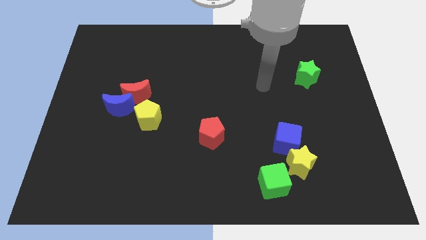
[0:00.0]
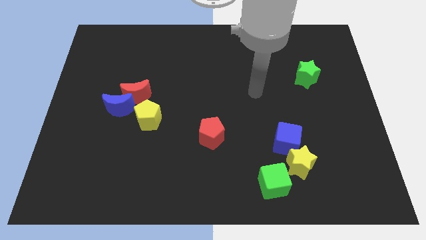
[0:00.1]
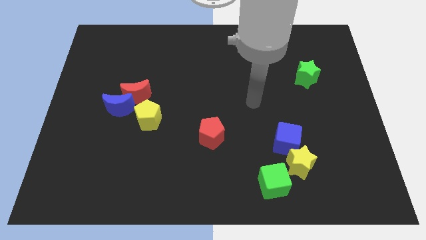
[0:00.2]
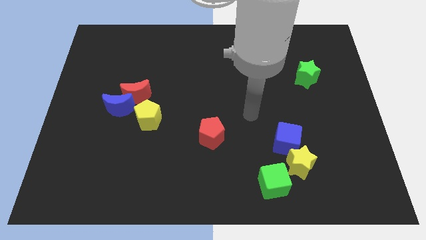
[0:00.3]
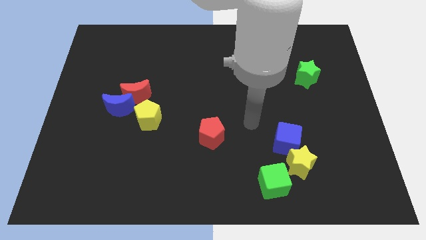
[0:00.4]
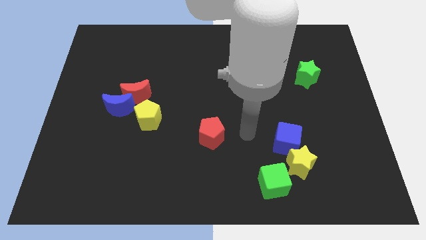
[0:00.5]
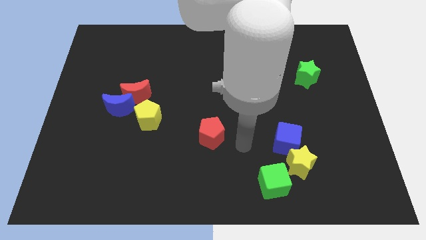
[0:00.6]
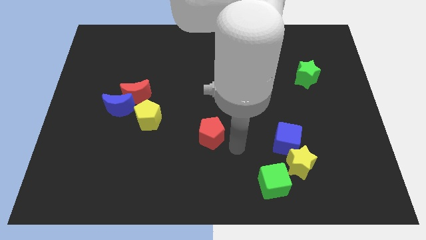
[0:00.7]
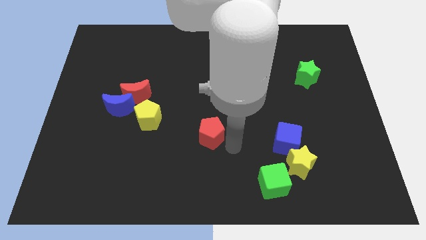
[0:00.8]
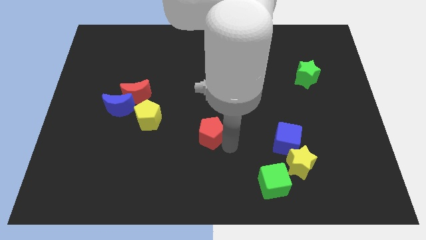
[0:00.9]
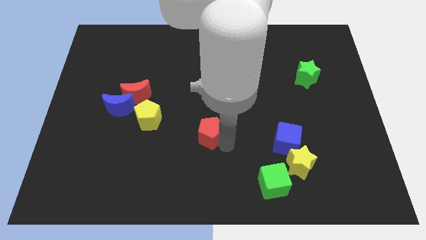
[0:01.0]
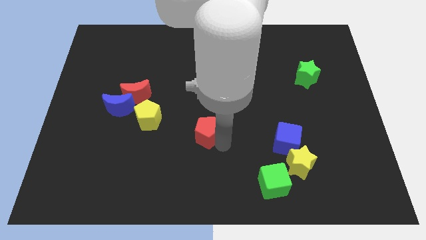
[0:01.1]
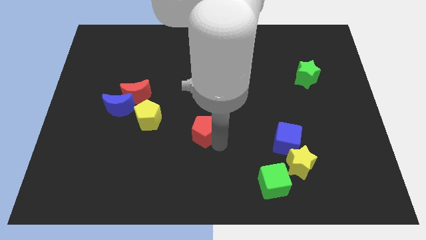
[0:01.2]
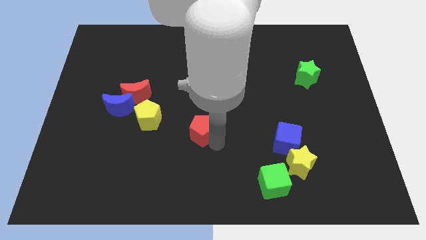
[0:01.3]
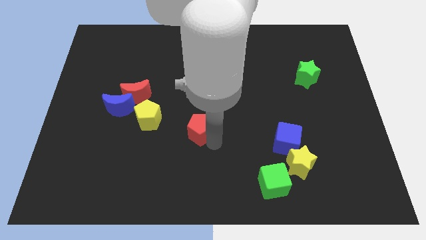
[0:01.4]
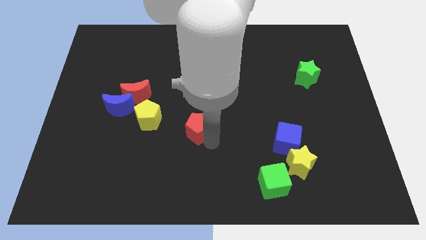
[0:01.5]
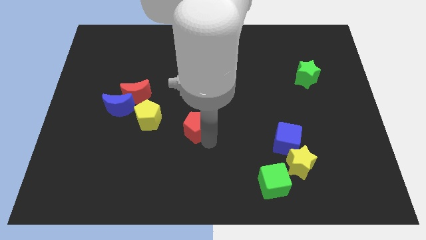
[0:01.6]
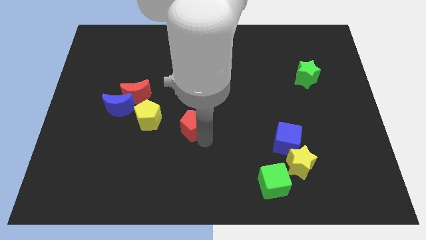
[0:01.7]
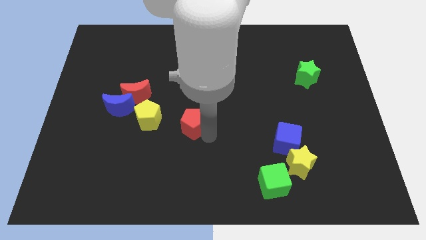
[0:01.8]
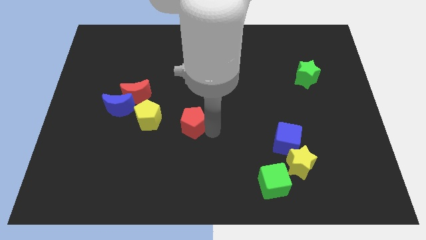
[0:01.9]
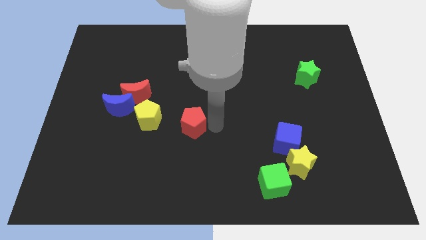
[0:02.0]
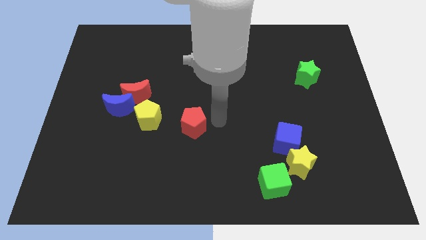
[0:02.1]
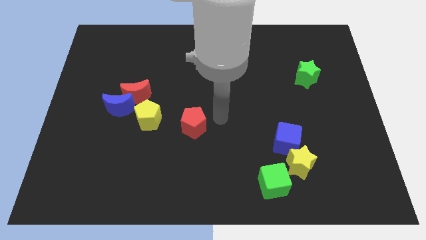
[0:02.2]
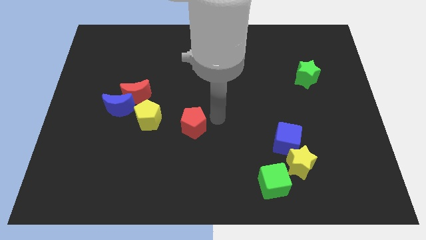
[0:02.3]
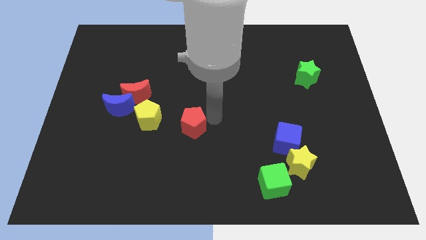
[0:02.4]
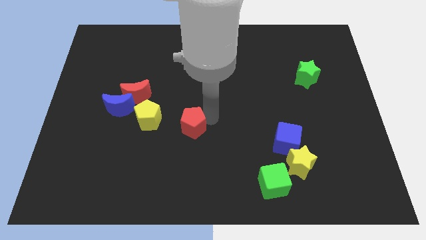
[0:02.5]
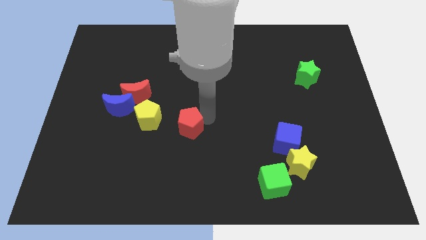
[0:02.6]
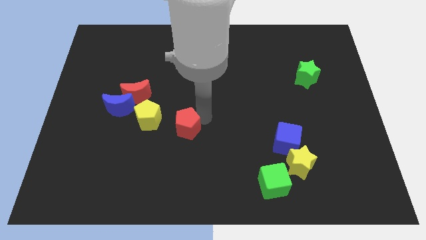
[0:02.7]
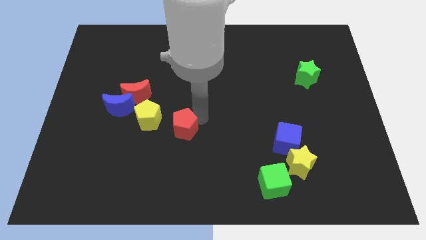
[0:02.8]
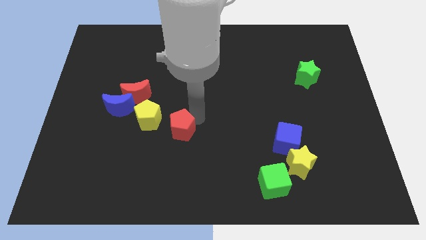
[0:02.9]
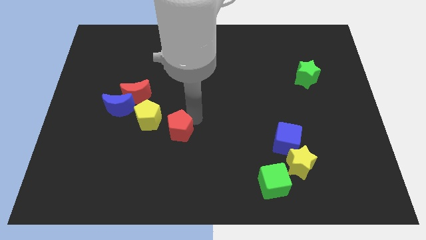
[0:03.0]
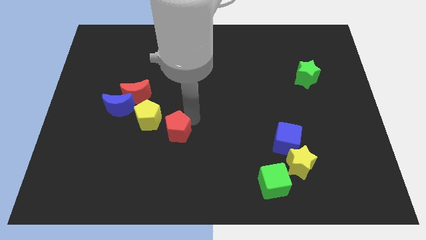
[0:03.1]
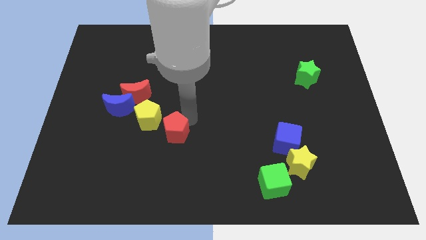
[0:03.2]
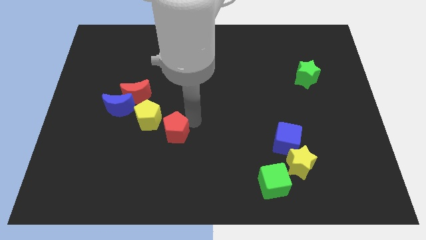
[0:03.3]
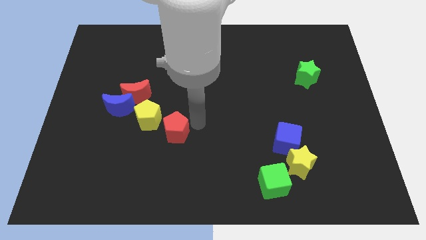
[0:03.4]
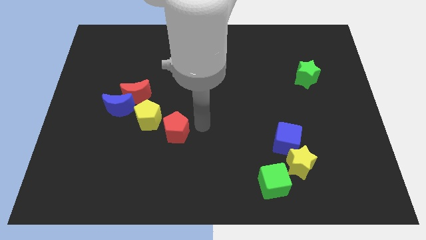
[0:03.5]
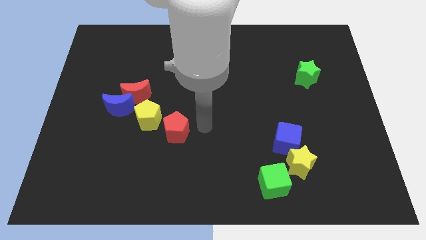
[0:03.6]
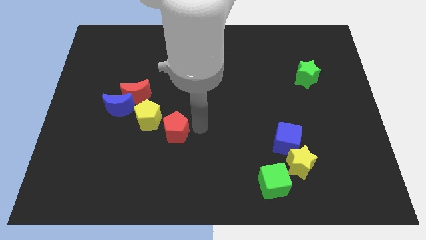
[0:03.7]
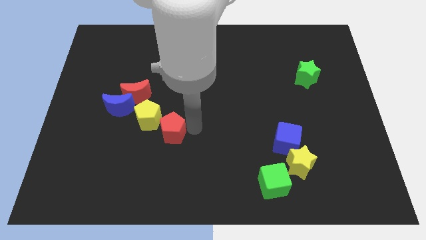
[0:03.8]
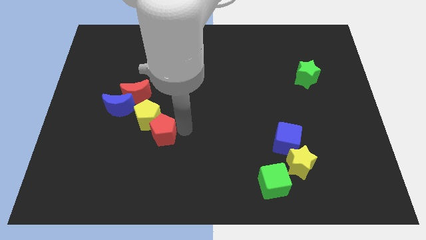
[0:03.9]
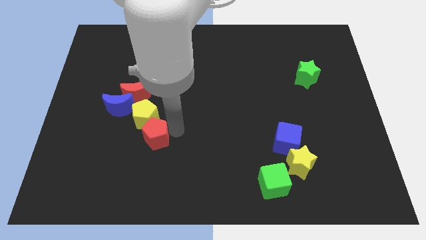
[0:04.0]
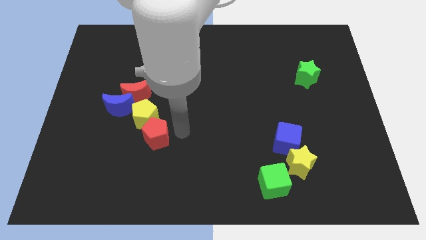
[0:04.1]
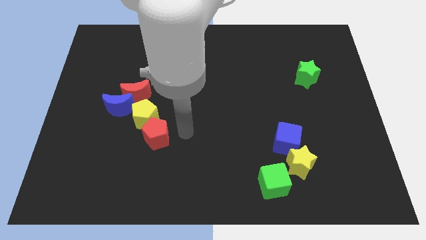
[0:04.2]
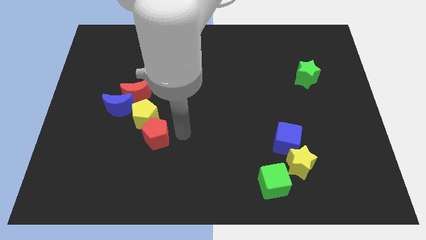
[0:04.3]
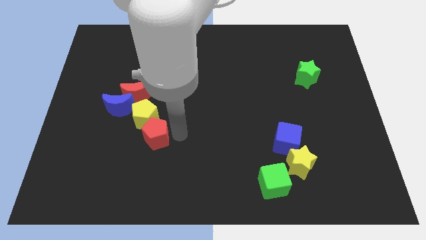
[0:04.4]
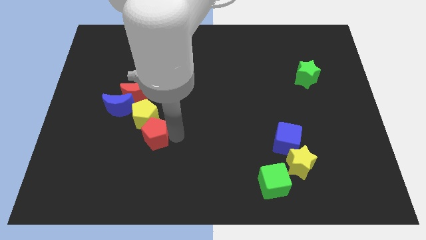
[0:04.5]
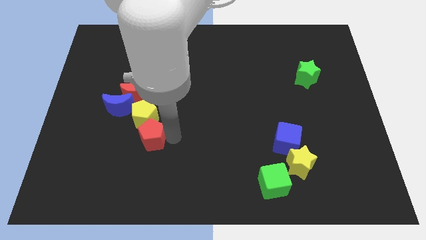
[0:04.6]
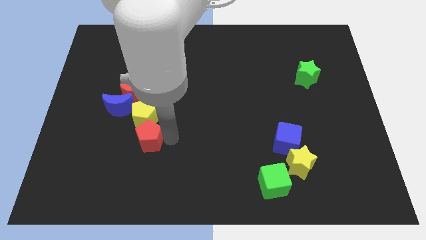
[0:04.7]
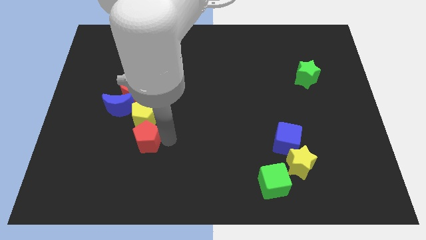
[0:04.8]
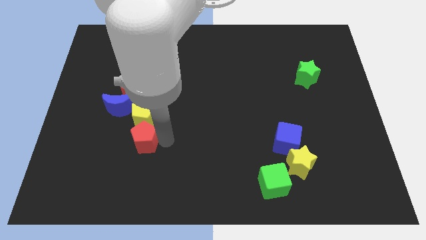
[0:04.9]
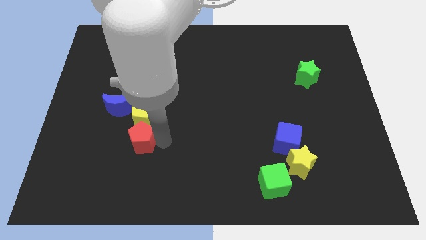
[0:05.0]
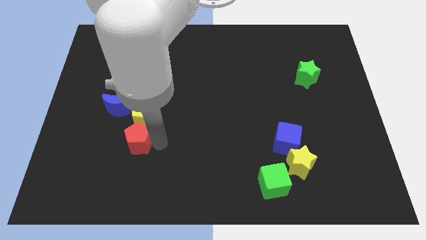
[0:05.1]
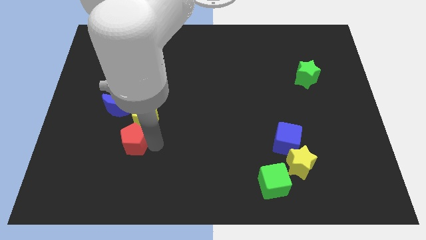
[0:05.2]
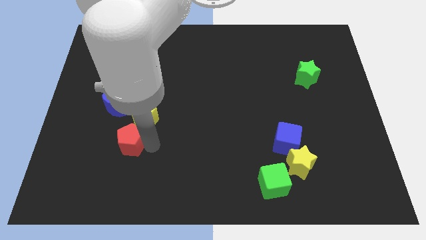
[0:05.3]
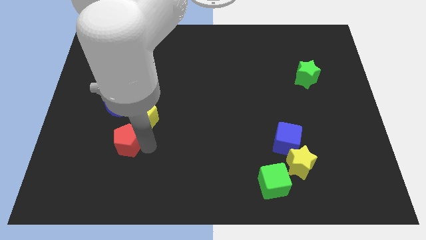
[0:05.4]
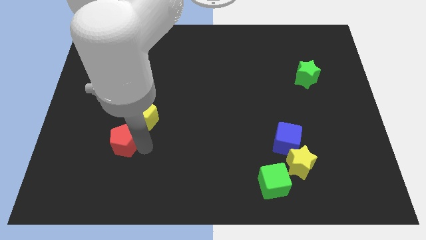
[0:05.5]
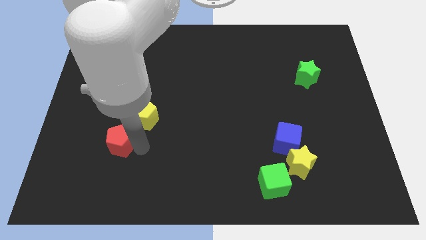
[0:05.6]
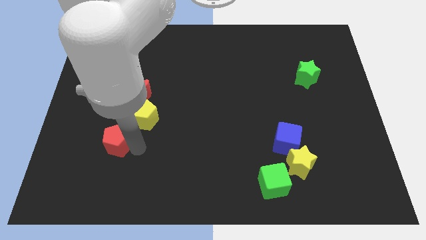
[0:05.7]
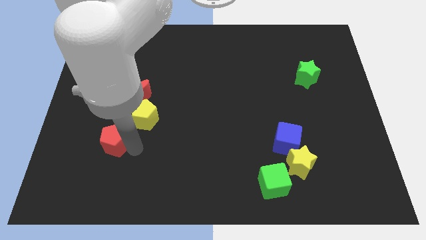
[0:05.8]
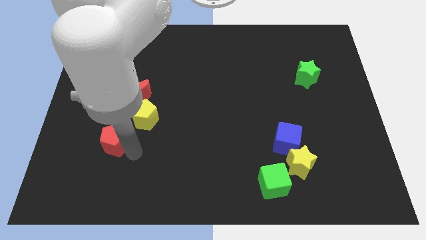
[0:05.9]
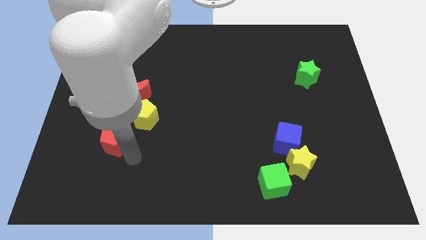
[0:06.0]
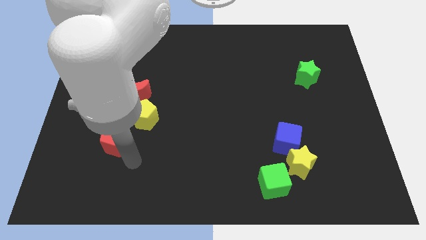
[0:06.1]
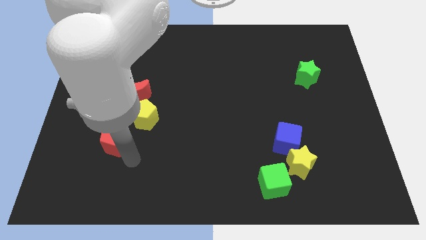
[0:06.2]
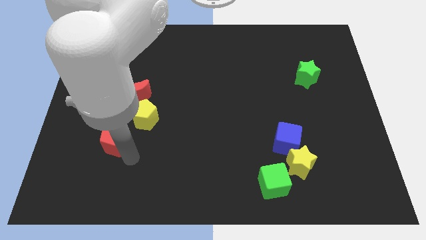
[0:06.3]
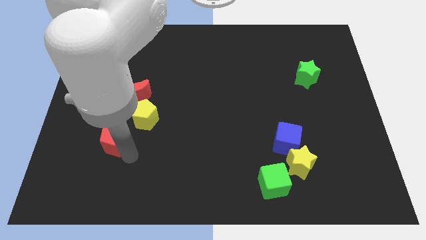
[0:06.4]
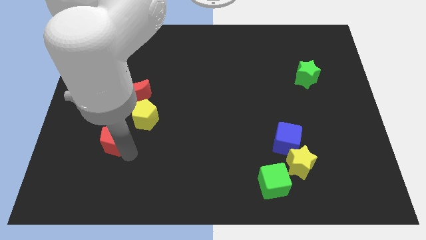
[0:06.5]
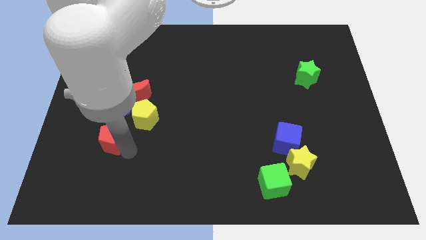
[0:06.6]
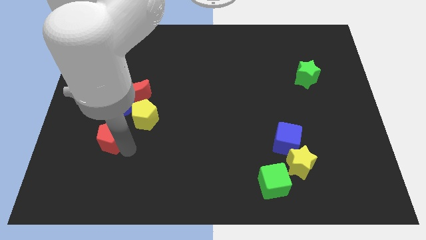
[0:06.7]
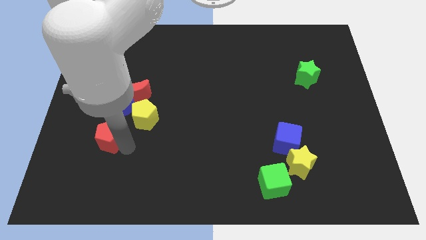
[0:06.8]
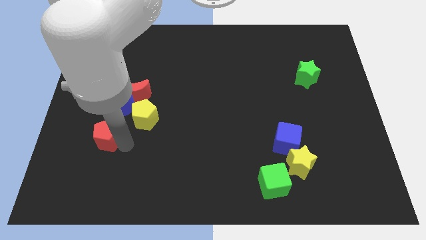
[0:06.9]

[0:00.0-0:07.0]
put the red pentagon to the bottom left side of the blue moon

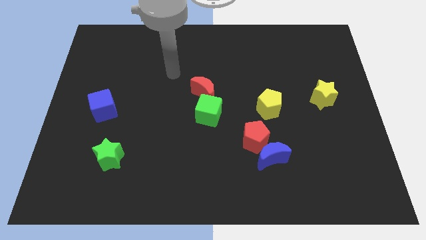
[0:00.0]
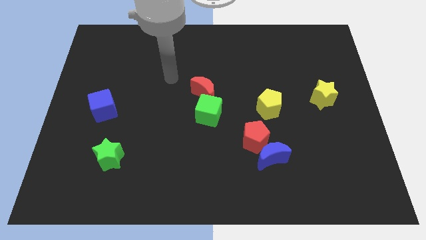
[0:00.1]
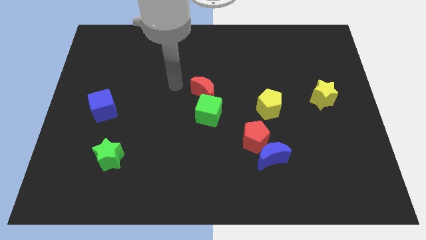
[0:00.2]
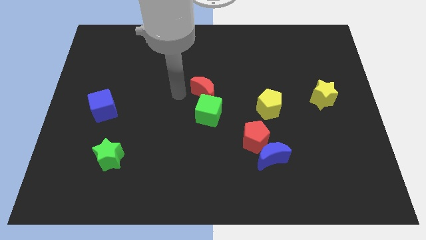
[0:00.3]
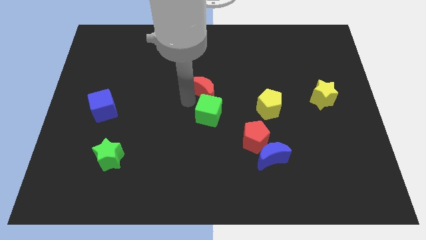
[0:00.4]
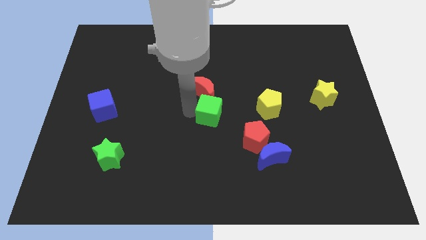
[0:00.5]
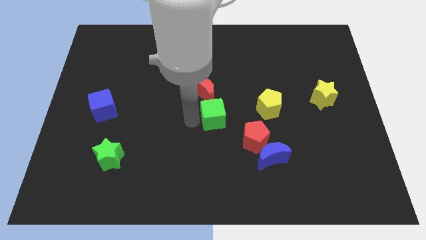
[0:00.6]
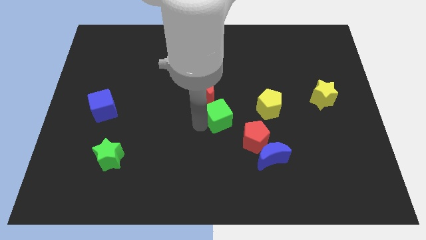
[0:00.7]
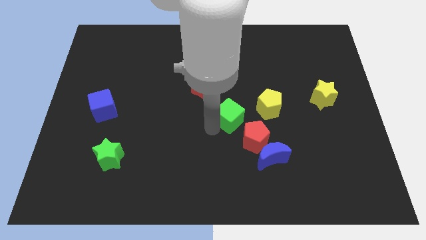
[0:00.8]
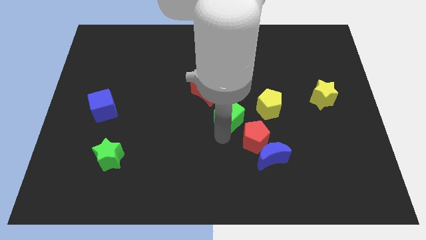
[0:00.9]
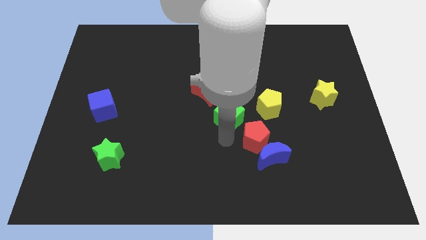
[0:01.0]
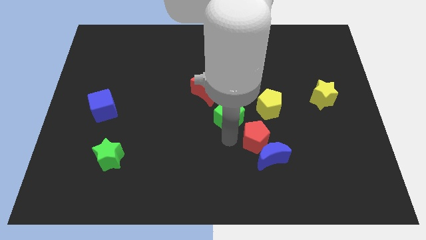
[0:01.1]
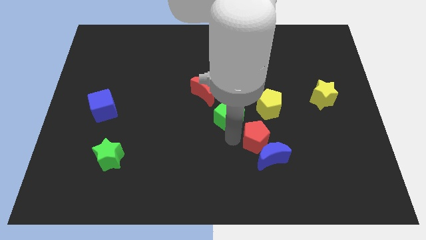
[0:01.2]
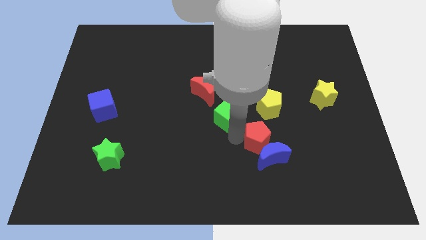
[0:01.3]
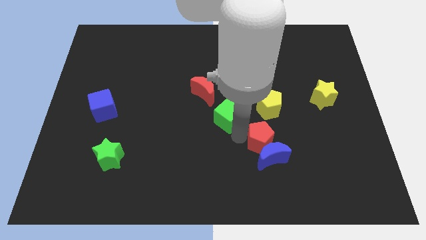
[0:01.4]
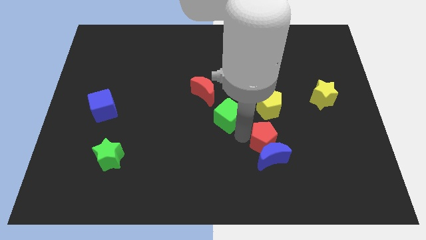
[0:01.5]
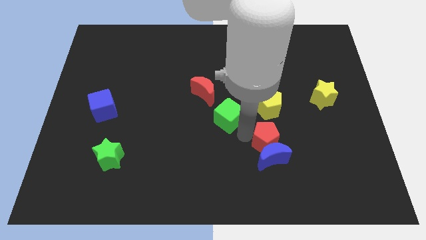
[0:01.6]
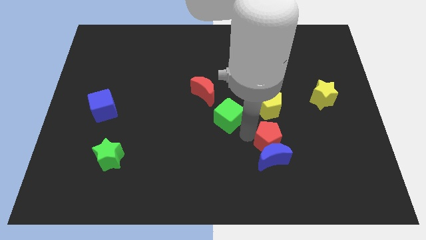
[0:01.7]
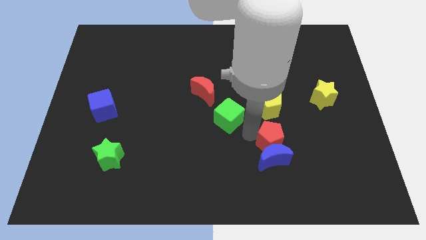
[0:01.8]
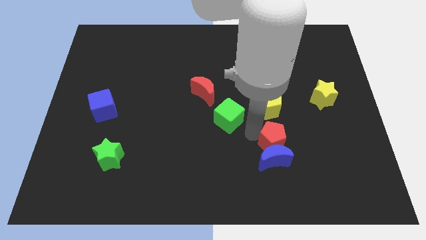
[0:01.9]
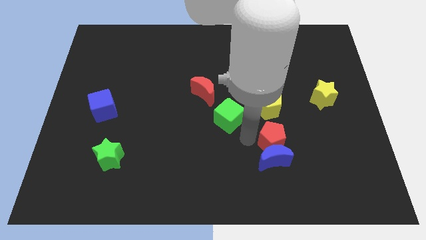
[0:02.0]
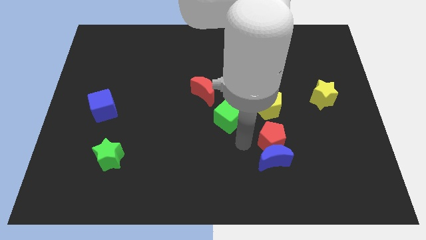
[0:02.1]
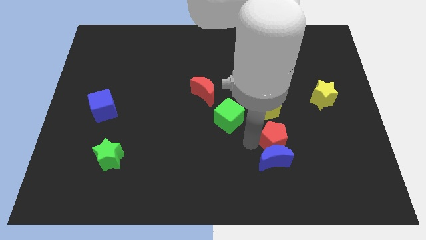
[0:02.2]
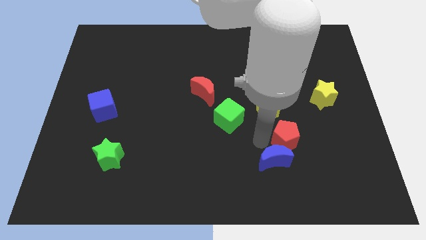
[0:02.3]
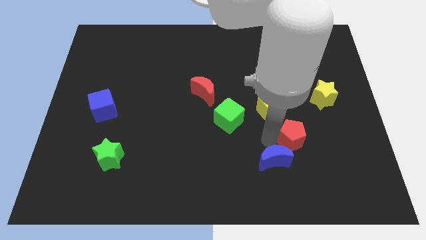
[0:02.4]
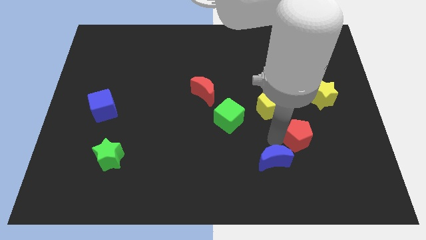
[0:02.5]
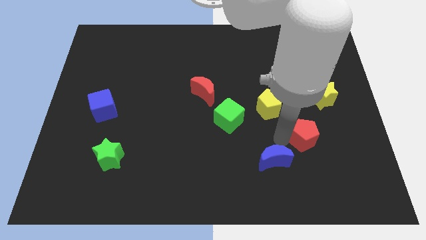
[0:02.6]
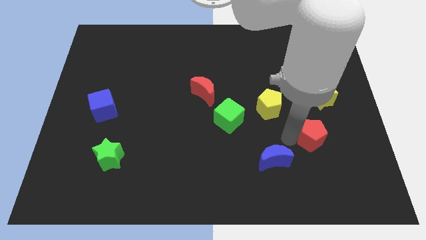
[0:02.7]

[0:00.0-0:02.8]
slide the red pentagon to the bottom side of the yellow star
